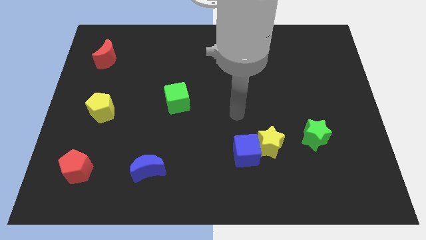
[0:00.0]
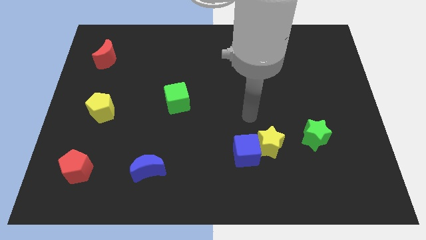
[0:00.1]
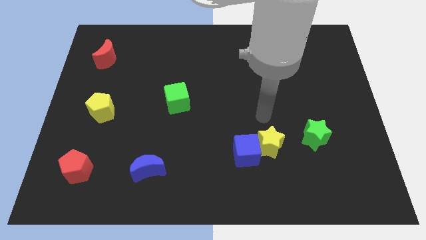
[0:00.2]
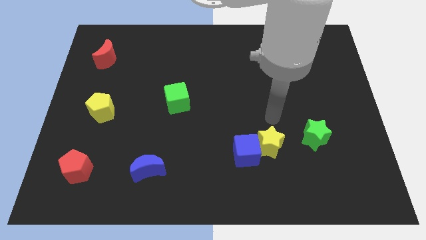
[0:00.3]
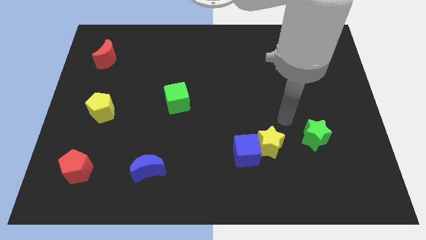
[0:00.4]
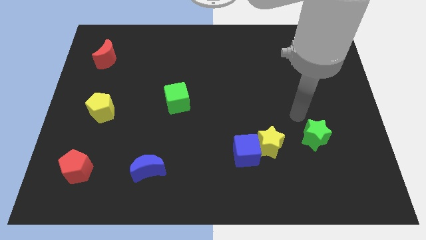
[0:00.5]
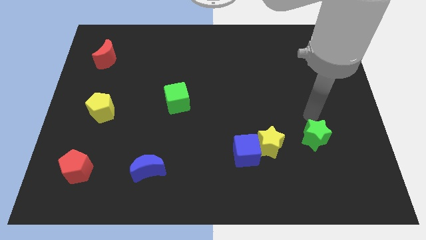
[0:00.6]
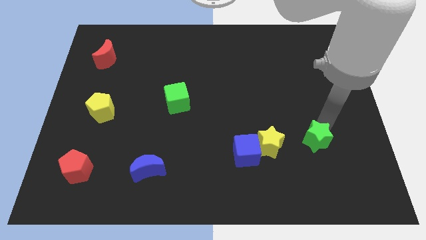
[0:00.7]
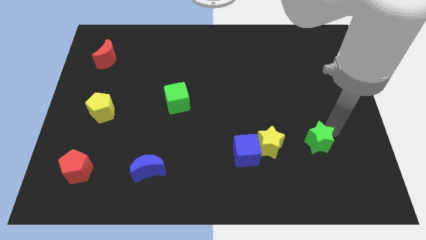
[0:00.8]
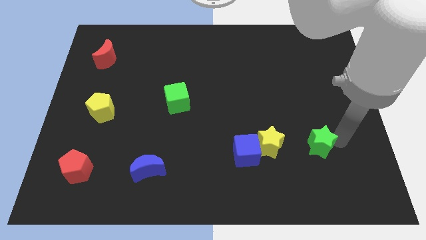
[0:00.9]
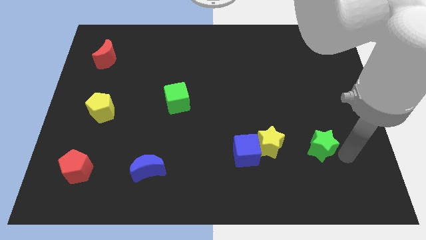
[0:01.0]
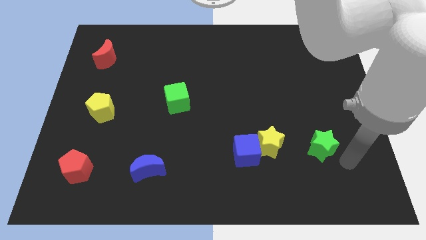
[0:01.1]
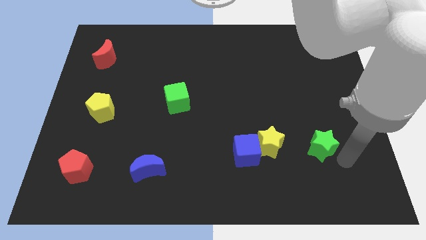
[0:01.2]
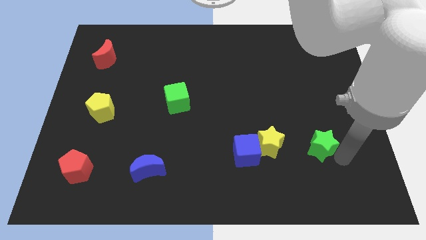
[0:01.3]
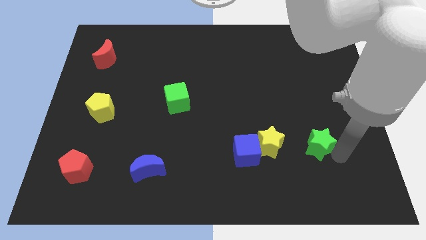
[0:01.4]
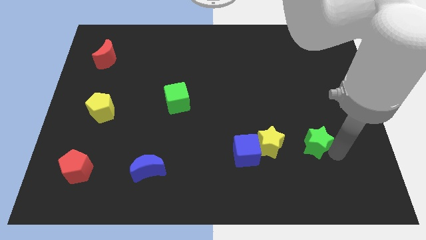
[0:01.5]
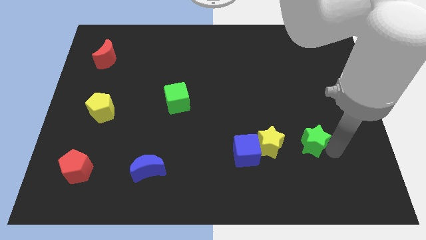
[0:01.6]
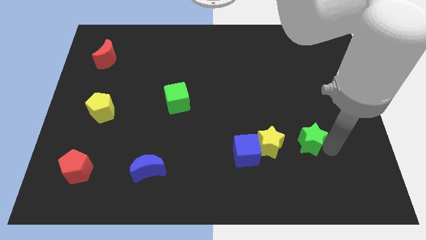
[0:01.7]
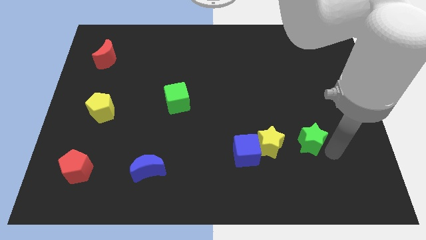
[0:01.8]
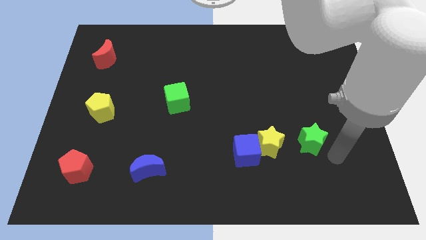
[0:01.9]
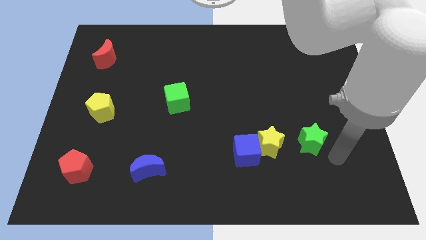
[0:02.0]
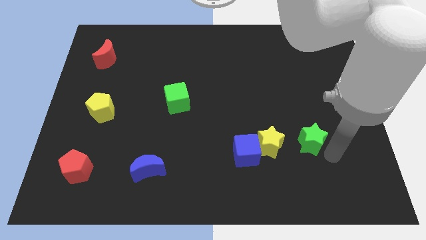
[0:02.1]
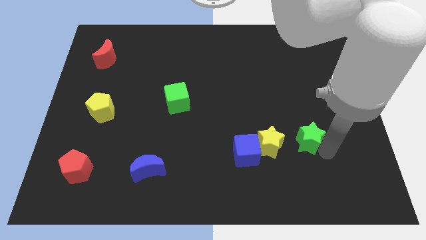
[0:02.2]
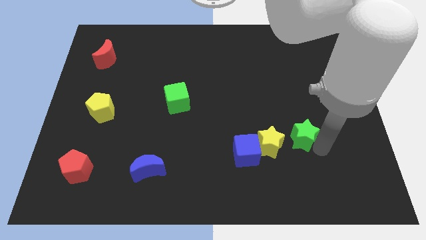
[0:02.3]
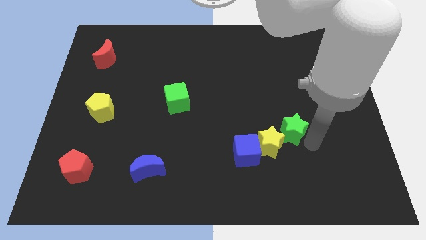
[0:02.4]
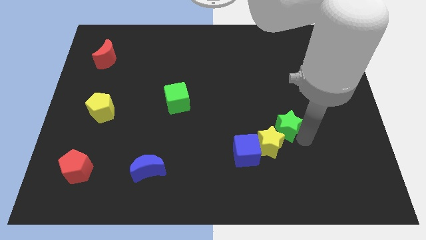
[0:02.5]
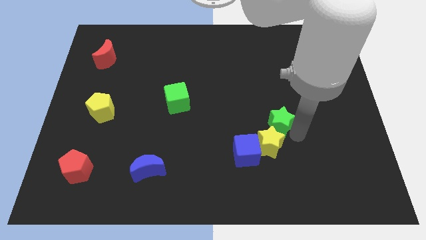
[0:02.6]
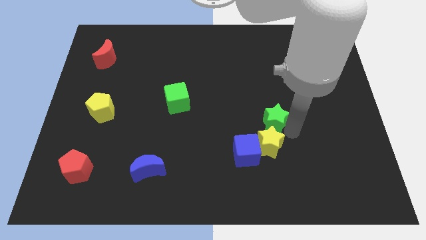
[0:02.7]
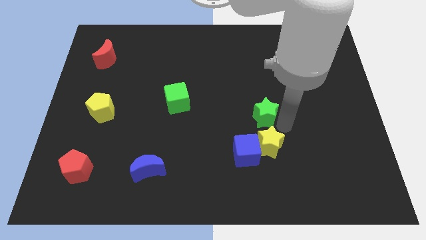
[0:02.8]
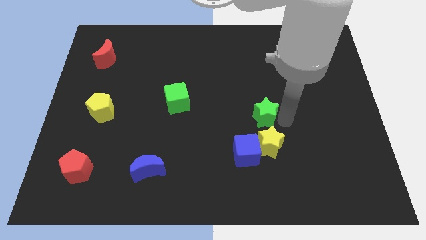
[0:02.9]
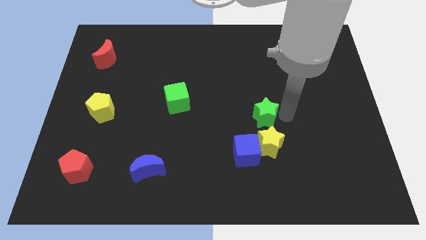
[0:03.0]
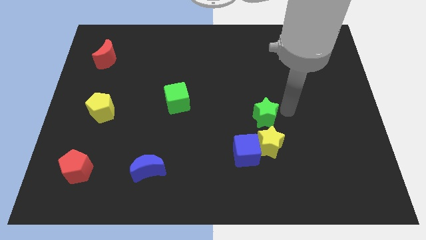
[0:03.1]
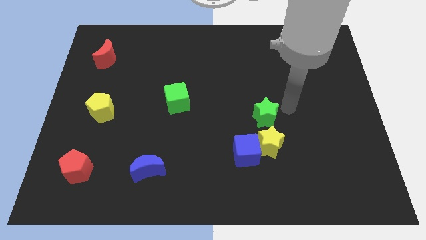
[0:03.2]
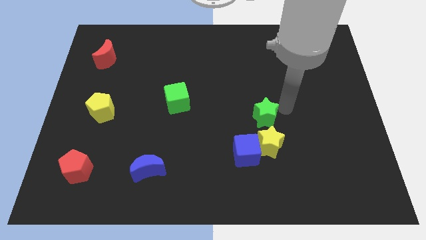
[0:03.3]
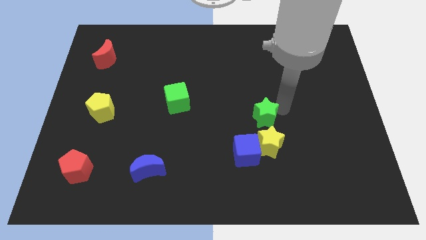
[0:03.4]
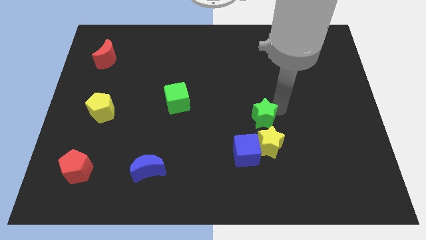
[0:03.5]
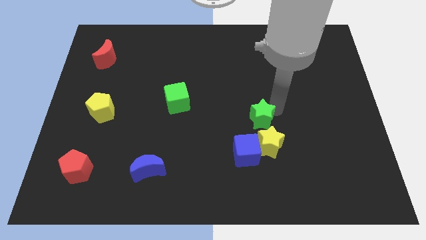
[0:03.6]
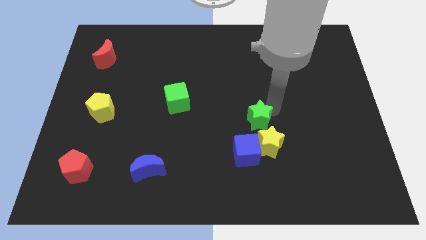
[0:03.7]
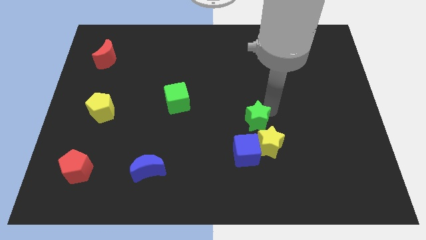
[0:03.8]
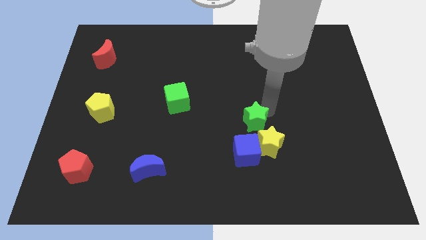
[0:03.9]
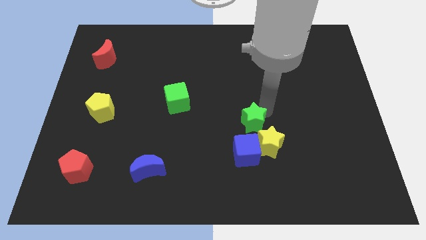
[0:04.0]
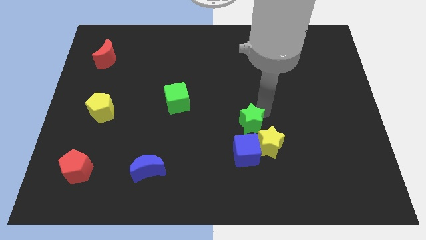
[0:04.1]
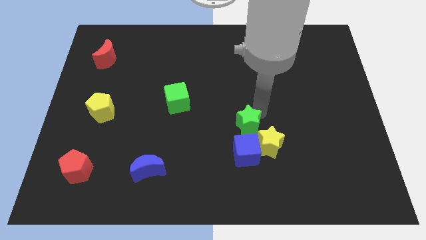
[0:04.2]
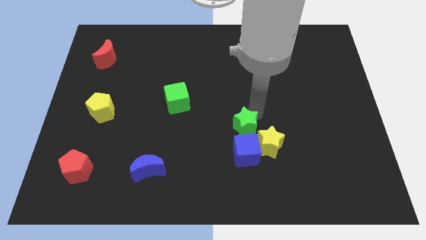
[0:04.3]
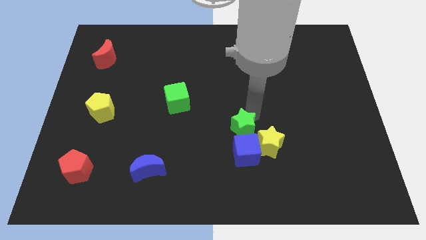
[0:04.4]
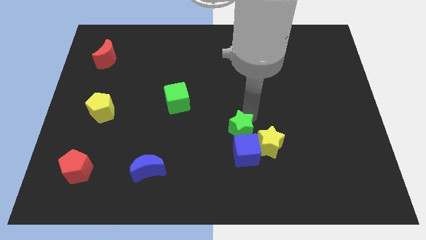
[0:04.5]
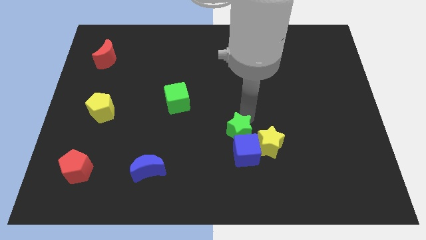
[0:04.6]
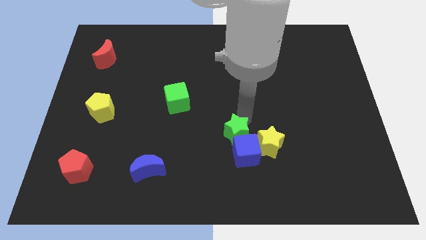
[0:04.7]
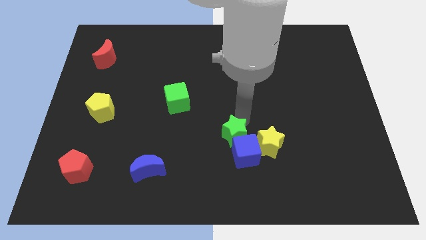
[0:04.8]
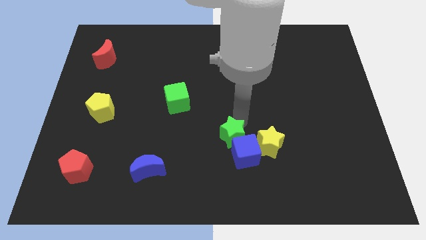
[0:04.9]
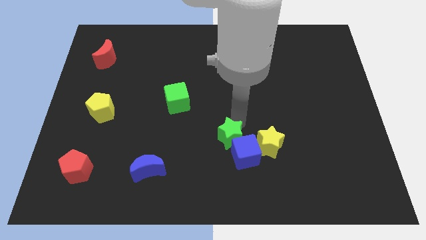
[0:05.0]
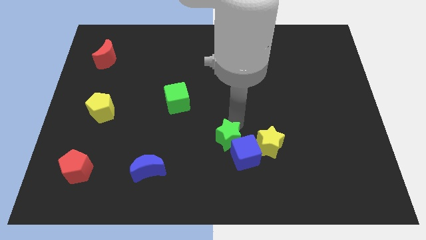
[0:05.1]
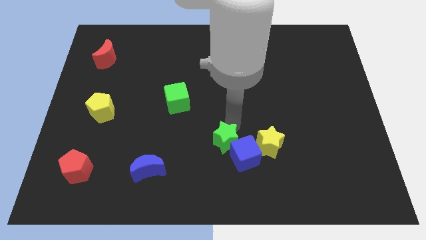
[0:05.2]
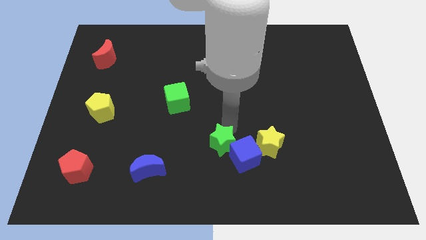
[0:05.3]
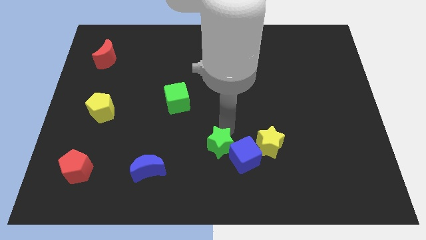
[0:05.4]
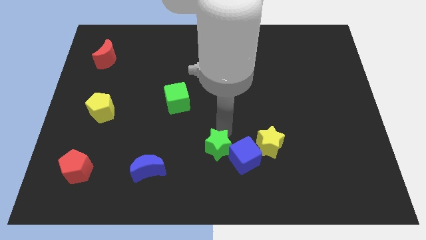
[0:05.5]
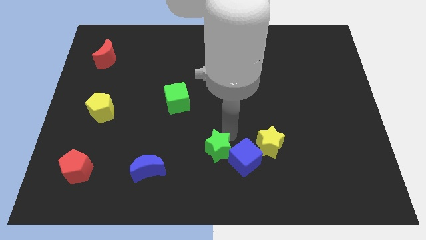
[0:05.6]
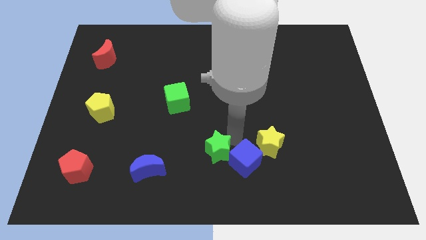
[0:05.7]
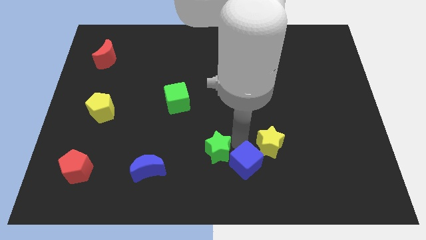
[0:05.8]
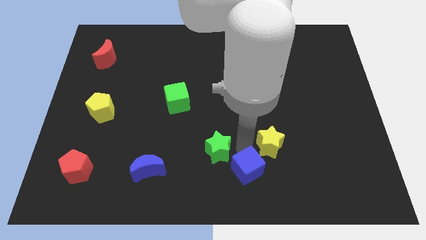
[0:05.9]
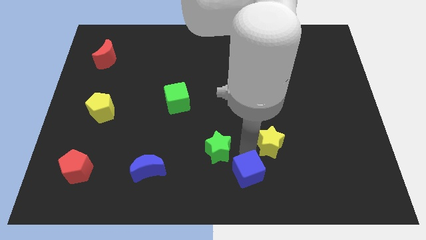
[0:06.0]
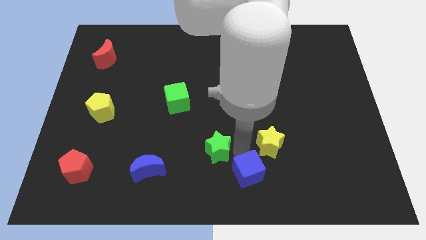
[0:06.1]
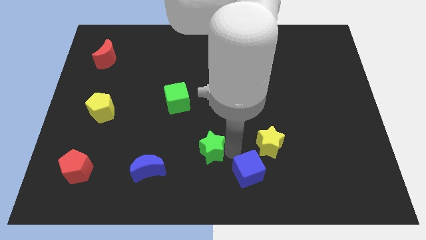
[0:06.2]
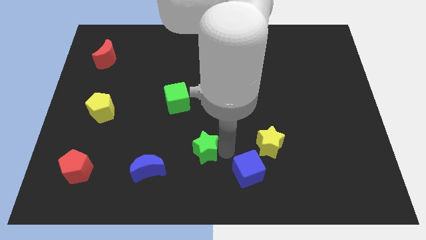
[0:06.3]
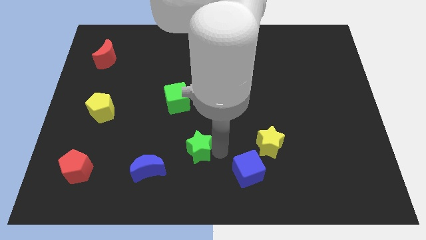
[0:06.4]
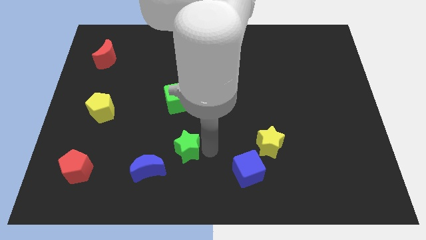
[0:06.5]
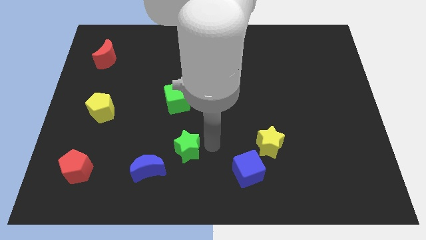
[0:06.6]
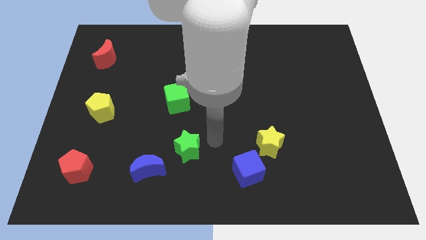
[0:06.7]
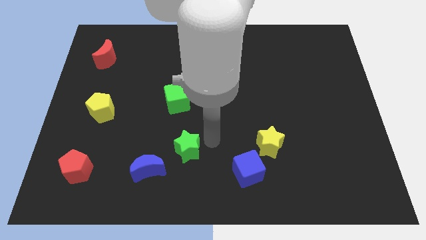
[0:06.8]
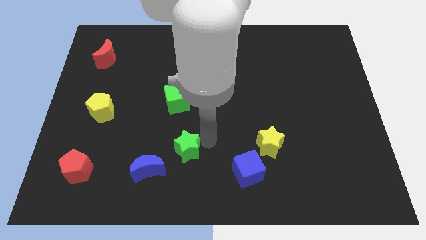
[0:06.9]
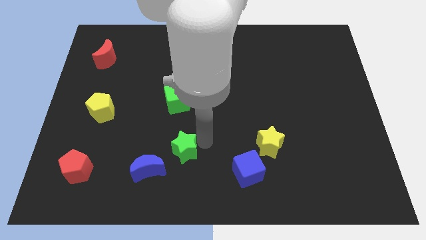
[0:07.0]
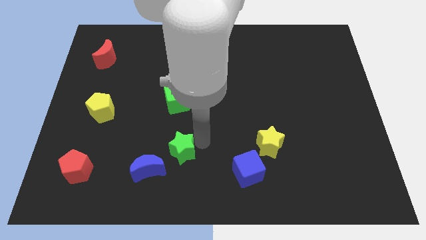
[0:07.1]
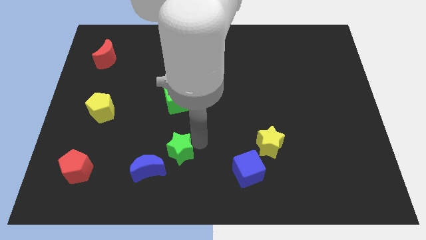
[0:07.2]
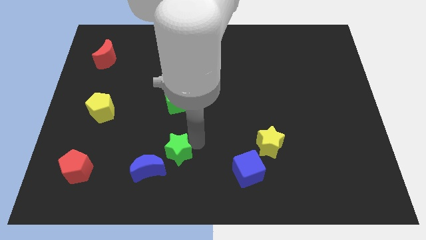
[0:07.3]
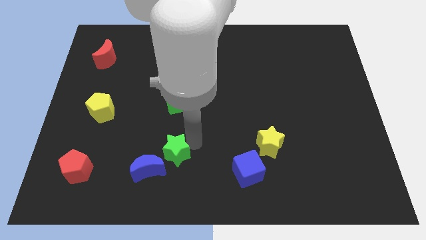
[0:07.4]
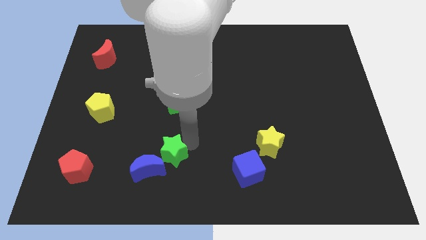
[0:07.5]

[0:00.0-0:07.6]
push the green star close to the blue moon
